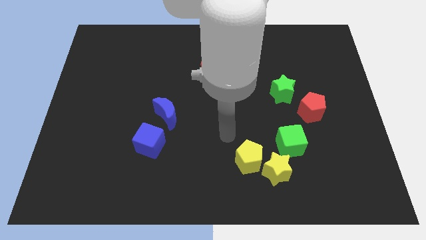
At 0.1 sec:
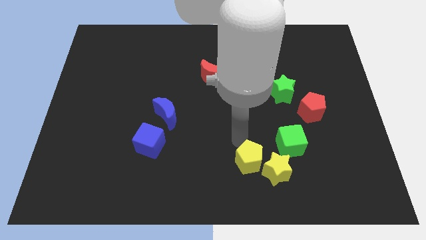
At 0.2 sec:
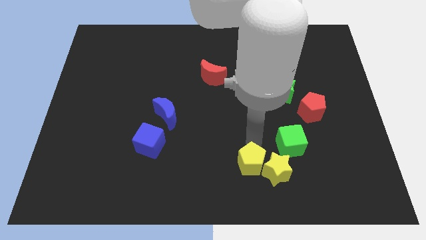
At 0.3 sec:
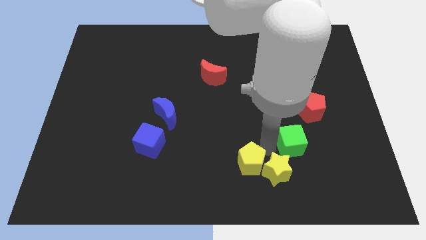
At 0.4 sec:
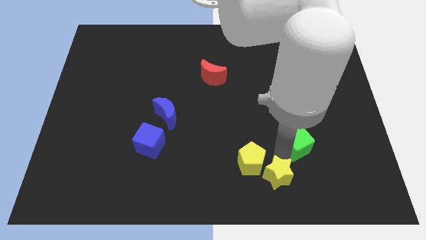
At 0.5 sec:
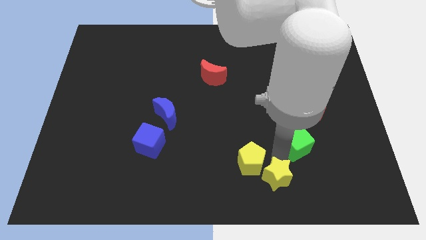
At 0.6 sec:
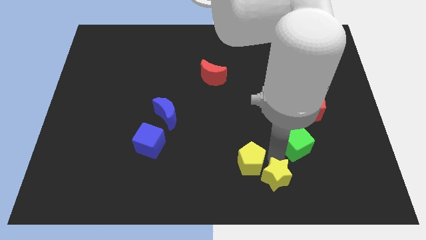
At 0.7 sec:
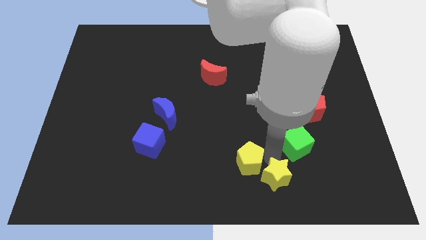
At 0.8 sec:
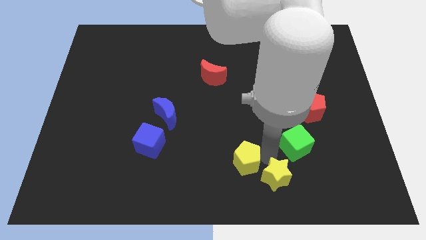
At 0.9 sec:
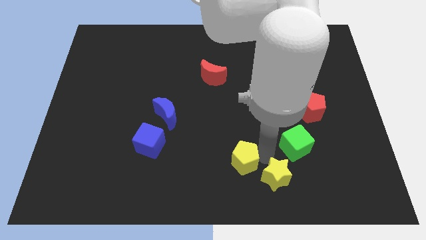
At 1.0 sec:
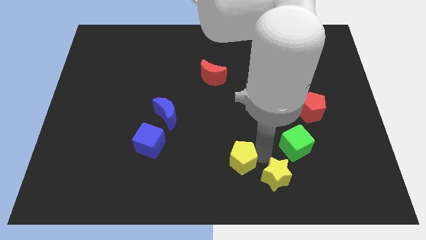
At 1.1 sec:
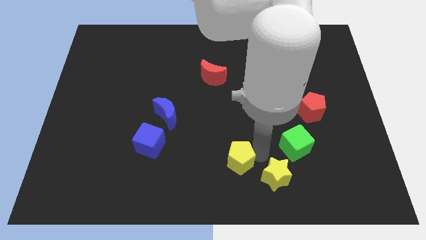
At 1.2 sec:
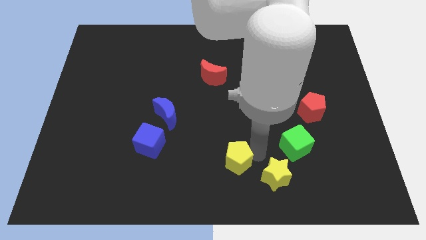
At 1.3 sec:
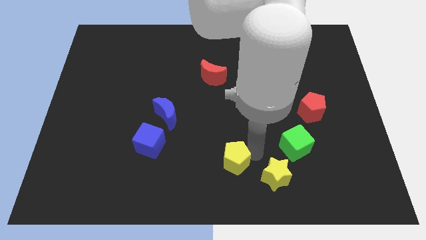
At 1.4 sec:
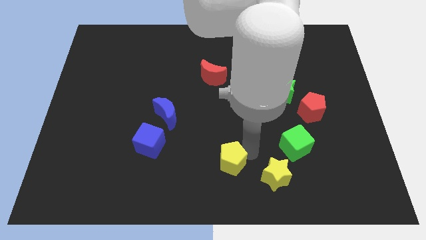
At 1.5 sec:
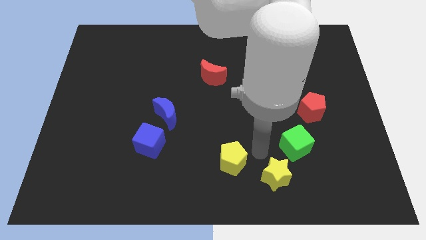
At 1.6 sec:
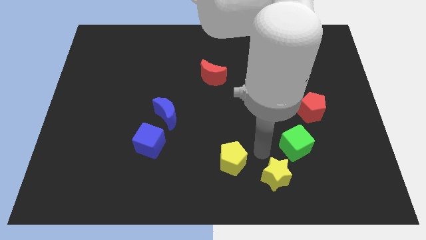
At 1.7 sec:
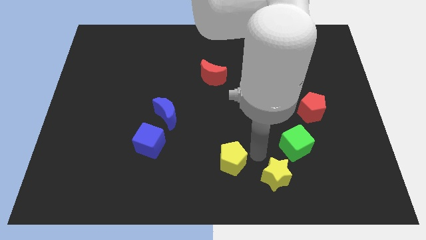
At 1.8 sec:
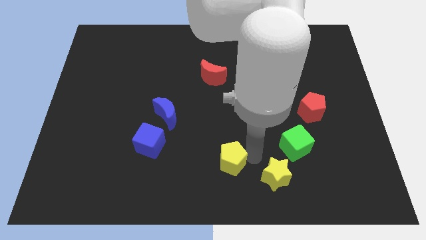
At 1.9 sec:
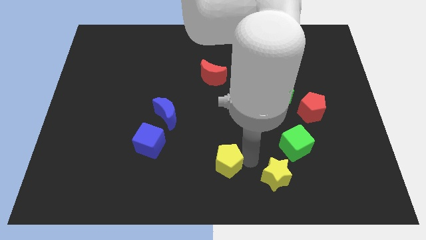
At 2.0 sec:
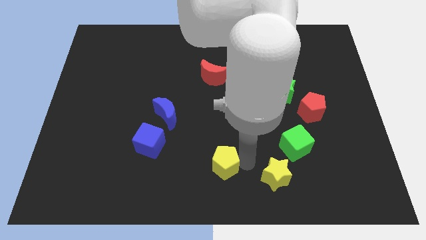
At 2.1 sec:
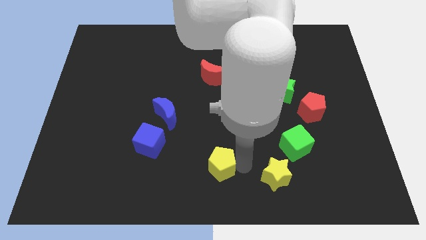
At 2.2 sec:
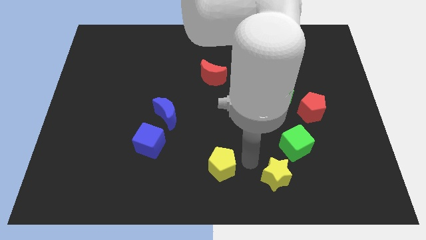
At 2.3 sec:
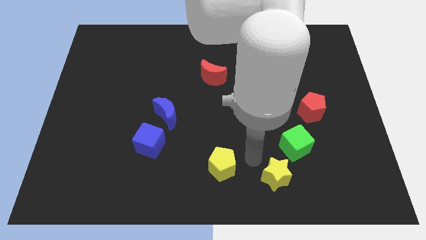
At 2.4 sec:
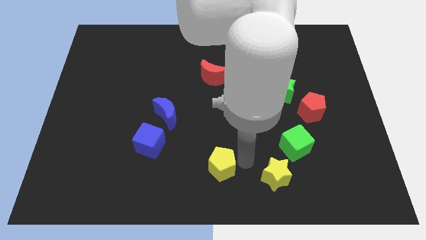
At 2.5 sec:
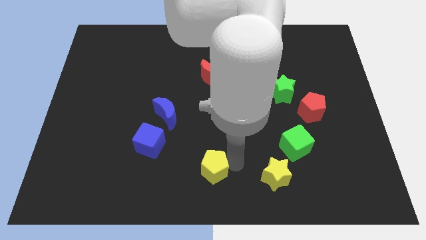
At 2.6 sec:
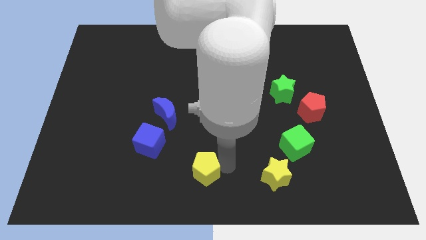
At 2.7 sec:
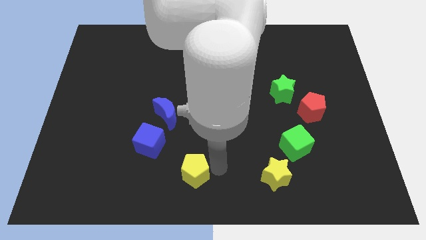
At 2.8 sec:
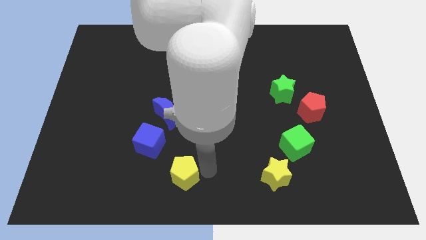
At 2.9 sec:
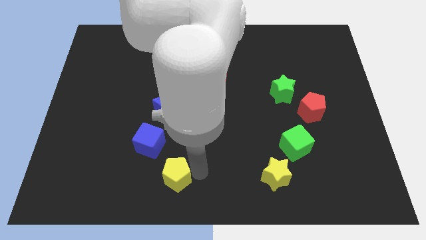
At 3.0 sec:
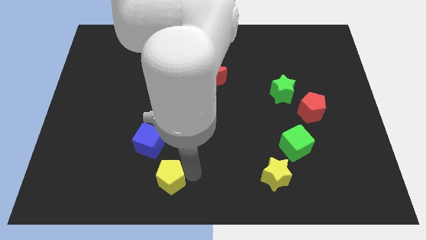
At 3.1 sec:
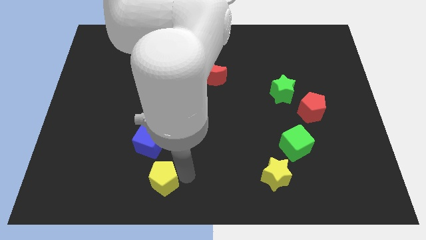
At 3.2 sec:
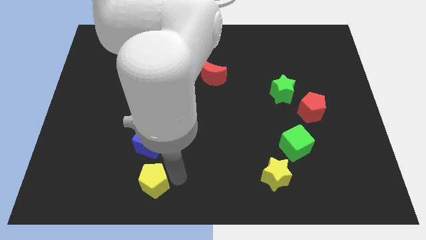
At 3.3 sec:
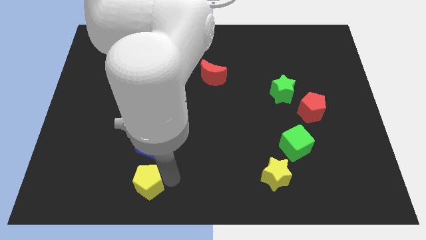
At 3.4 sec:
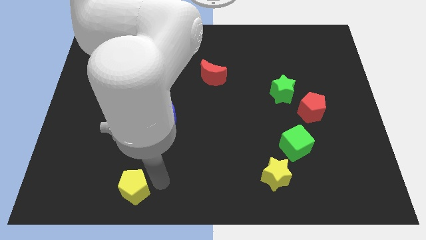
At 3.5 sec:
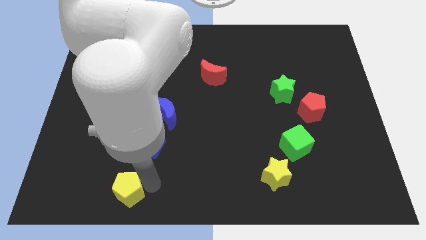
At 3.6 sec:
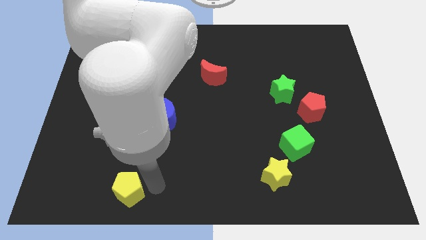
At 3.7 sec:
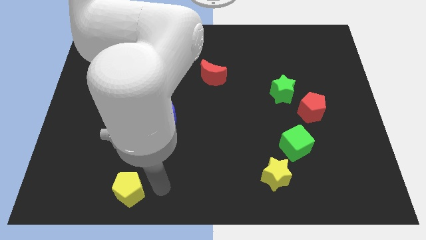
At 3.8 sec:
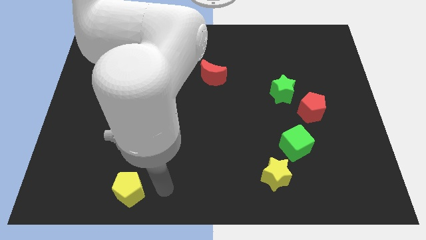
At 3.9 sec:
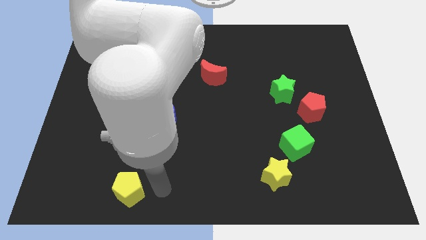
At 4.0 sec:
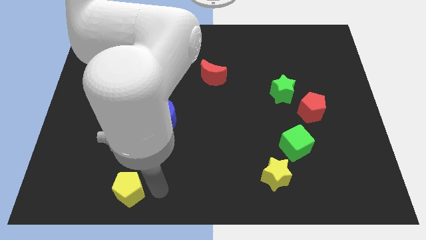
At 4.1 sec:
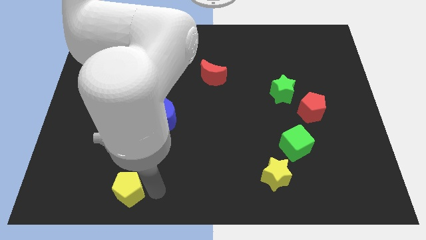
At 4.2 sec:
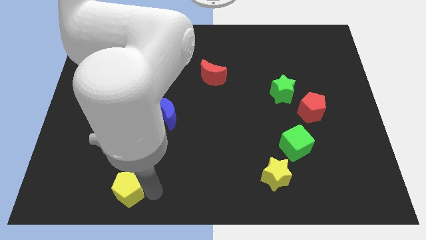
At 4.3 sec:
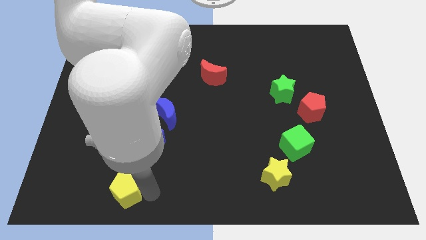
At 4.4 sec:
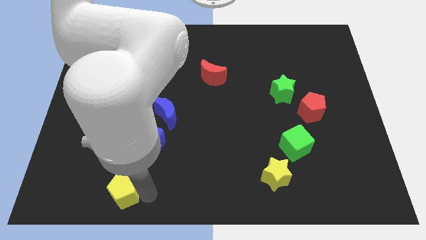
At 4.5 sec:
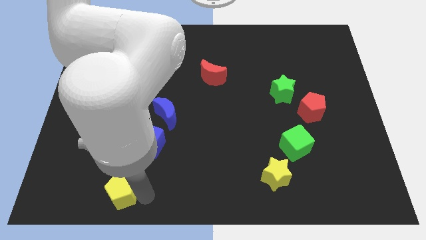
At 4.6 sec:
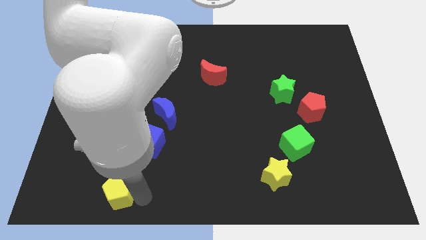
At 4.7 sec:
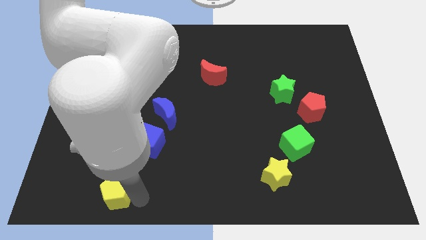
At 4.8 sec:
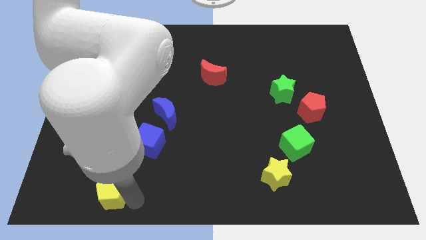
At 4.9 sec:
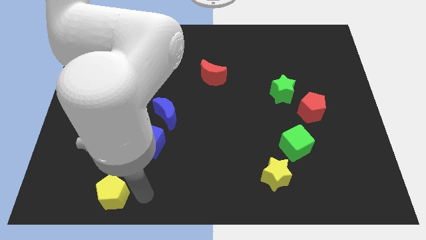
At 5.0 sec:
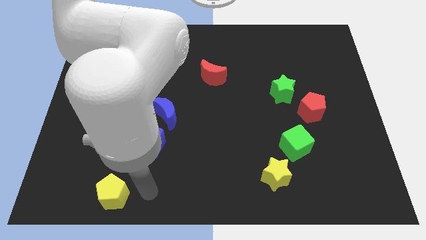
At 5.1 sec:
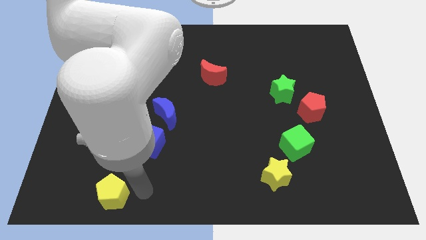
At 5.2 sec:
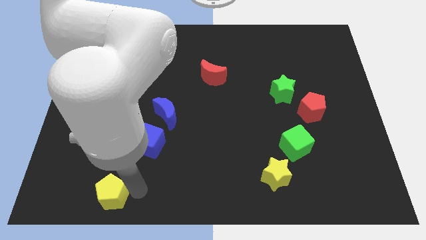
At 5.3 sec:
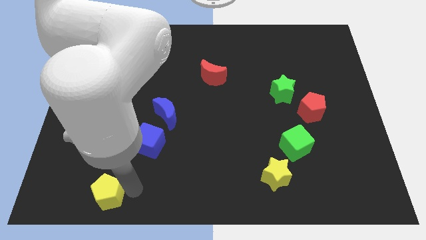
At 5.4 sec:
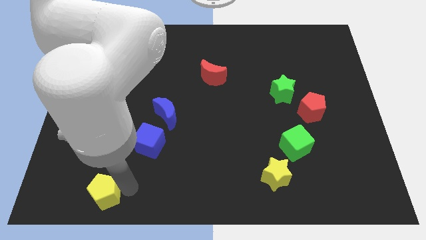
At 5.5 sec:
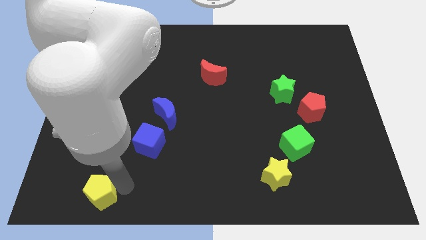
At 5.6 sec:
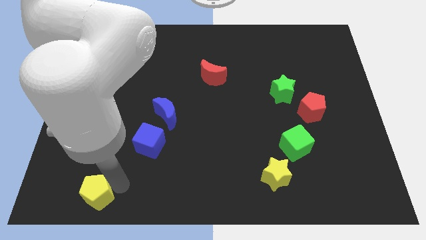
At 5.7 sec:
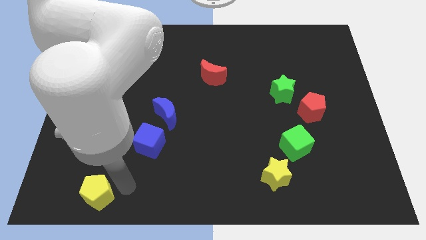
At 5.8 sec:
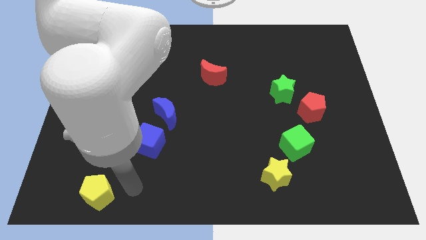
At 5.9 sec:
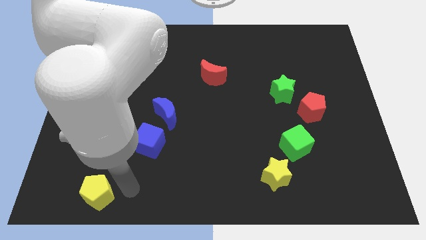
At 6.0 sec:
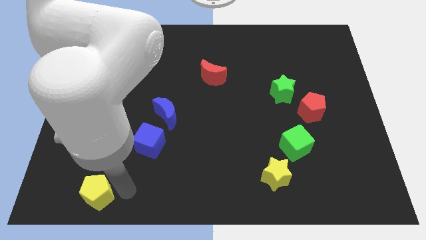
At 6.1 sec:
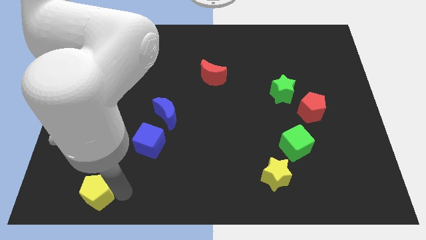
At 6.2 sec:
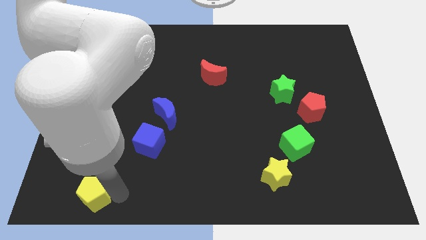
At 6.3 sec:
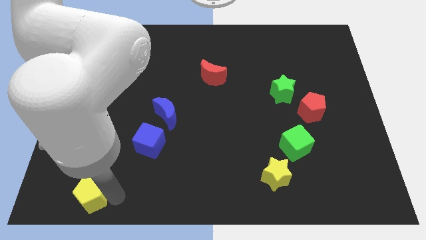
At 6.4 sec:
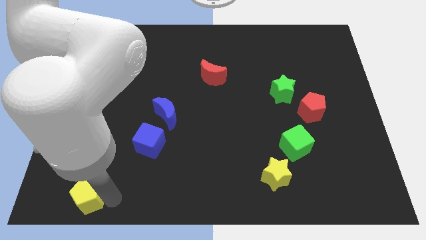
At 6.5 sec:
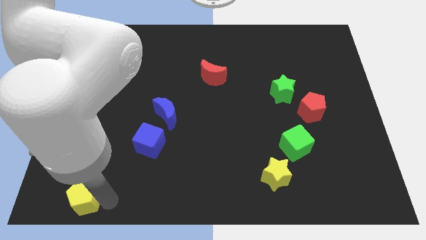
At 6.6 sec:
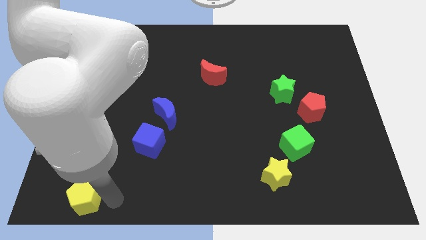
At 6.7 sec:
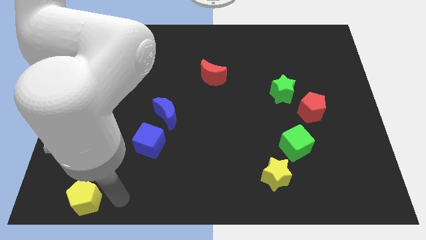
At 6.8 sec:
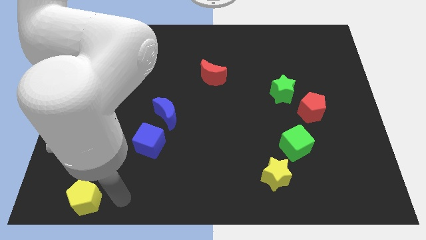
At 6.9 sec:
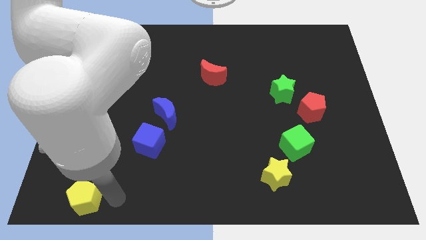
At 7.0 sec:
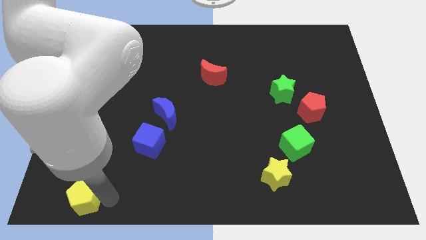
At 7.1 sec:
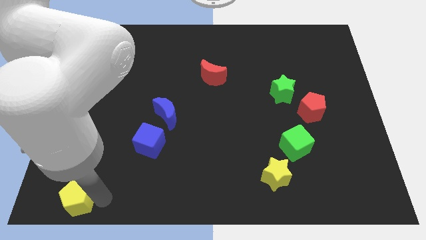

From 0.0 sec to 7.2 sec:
push the yellow pentagon to the bottom left corner
